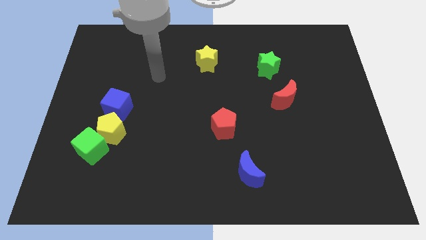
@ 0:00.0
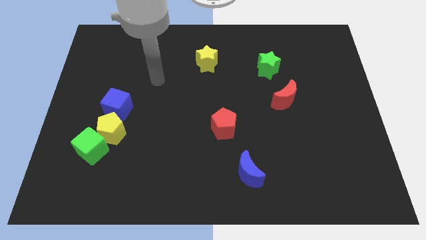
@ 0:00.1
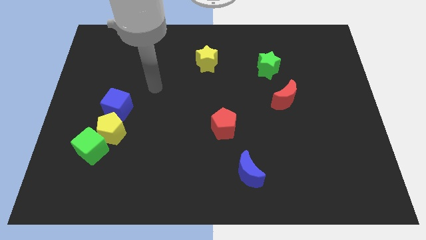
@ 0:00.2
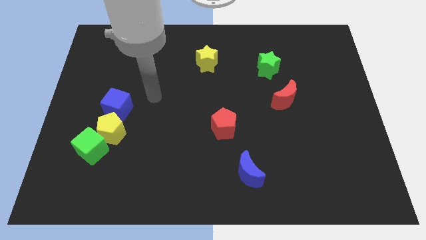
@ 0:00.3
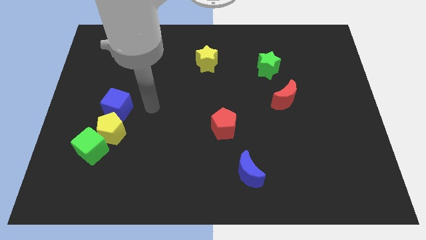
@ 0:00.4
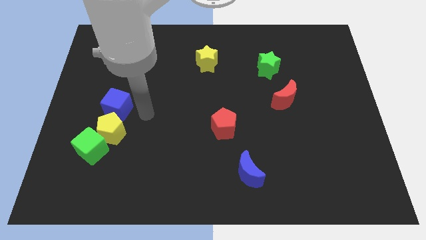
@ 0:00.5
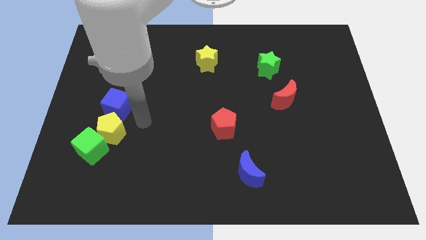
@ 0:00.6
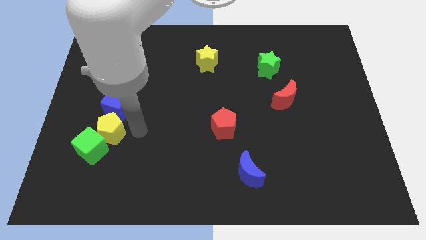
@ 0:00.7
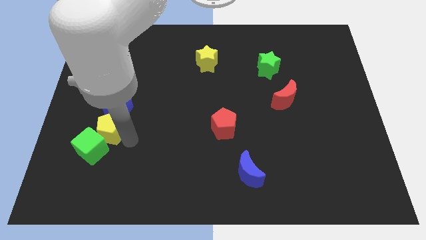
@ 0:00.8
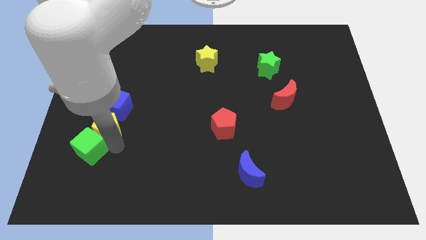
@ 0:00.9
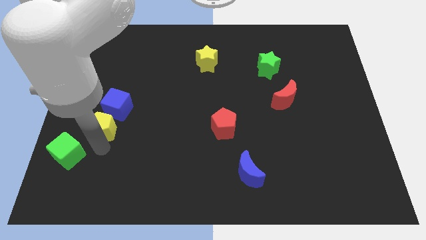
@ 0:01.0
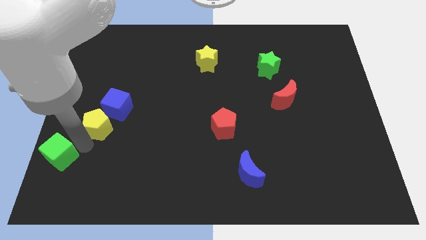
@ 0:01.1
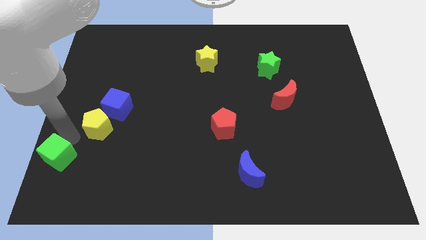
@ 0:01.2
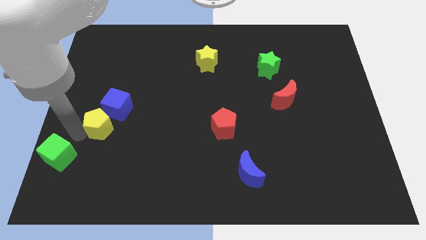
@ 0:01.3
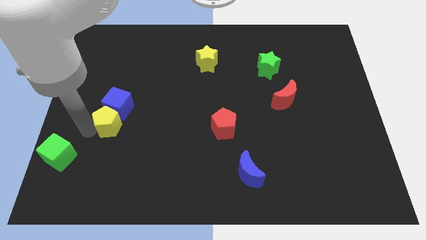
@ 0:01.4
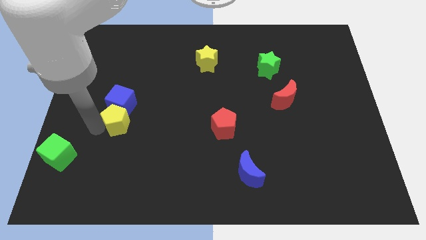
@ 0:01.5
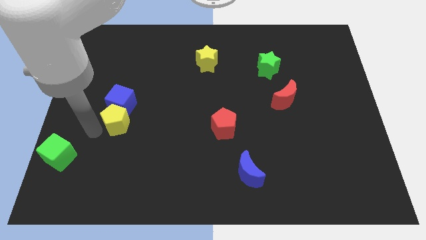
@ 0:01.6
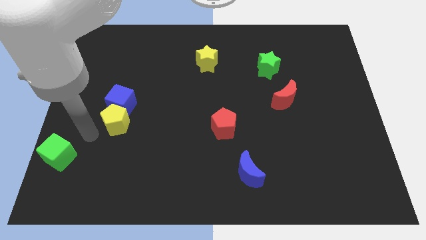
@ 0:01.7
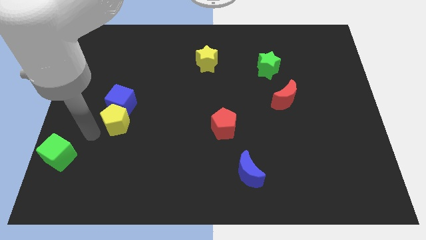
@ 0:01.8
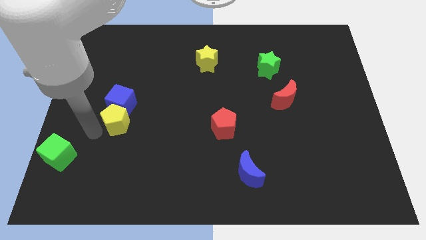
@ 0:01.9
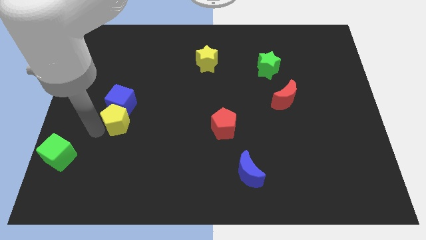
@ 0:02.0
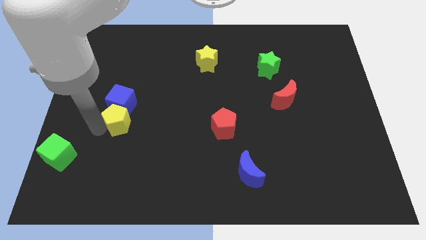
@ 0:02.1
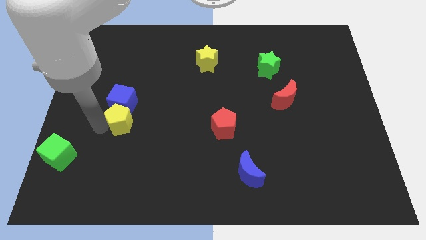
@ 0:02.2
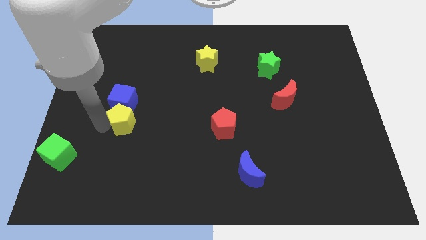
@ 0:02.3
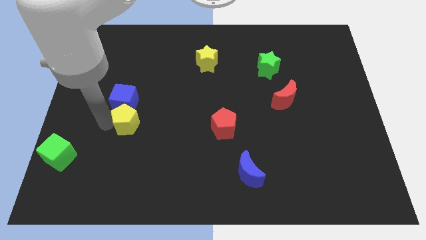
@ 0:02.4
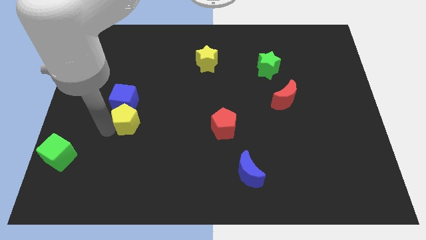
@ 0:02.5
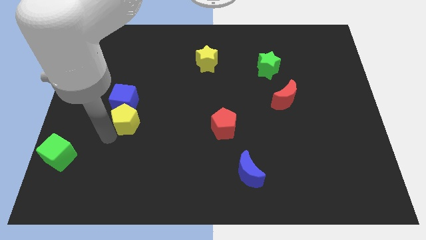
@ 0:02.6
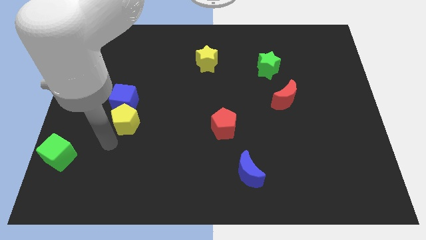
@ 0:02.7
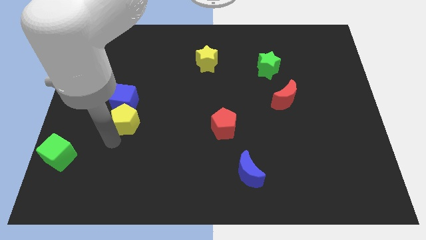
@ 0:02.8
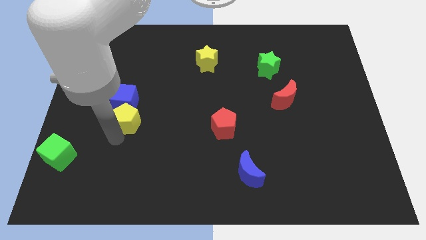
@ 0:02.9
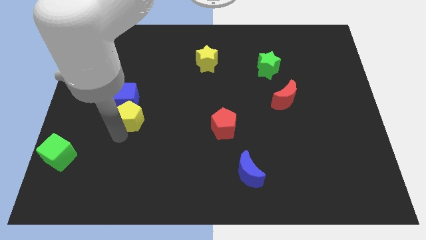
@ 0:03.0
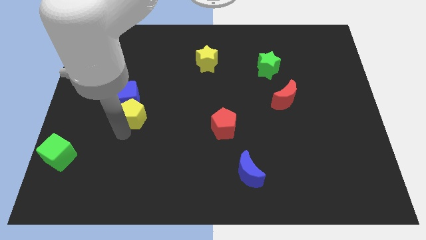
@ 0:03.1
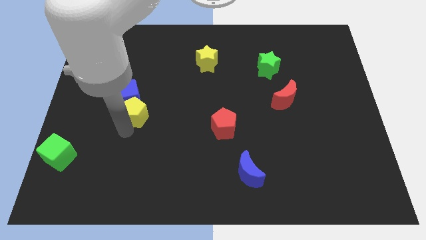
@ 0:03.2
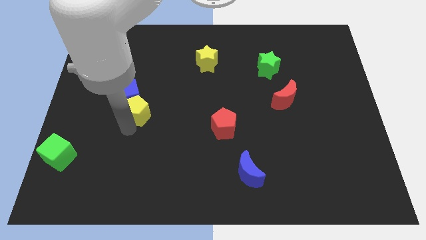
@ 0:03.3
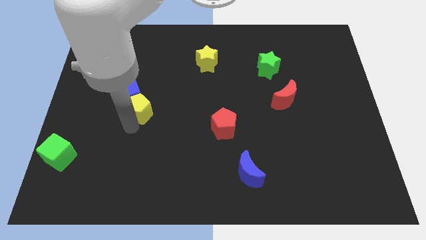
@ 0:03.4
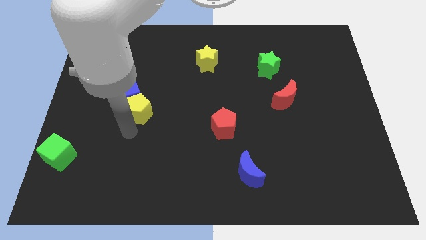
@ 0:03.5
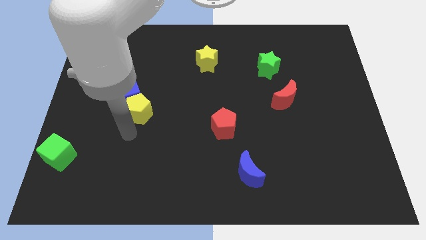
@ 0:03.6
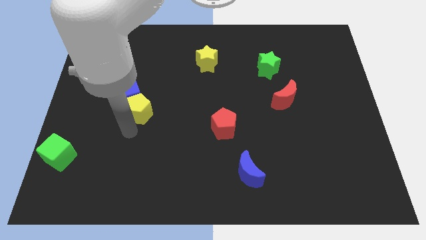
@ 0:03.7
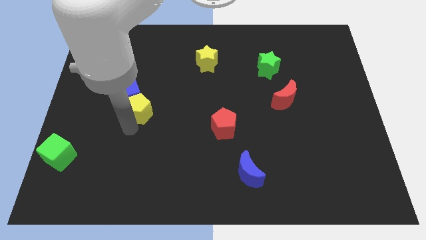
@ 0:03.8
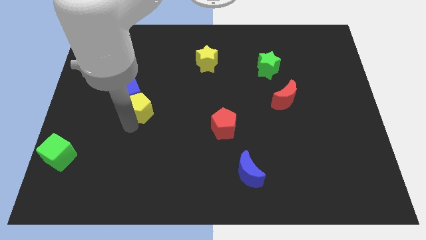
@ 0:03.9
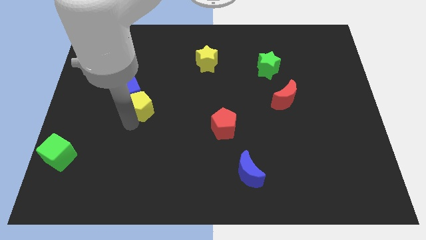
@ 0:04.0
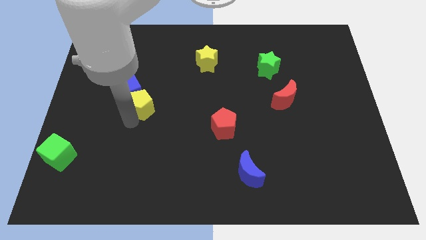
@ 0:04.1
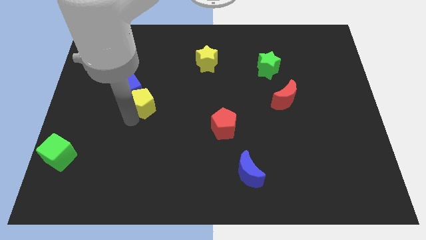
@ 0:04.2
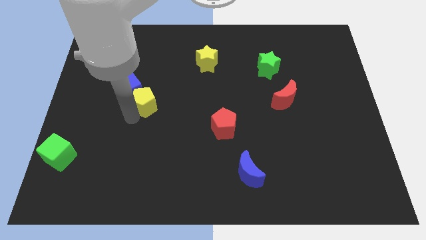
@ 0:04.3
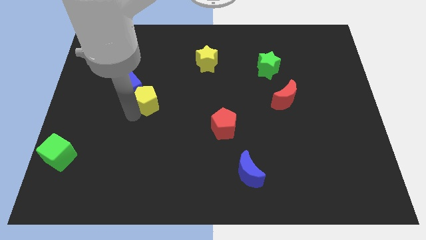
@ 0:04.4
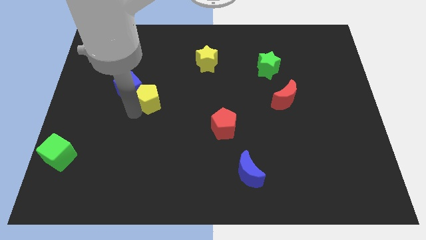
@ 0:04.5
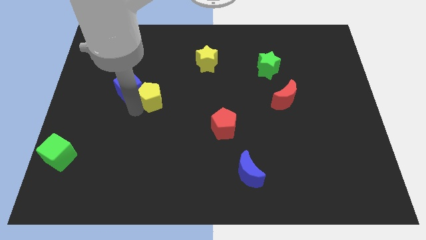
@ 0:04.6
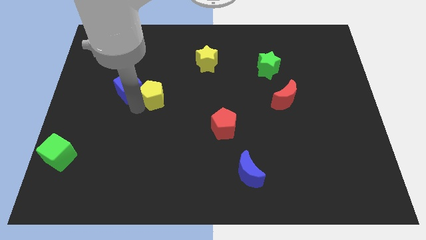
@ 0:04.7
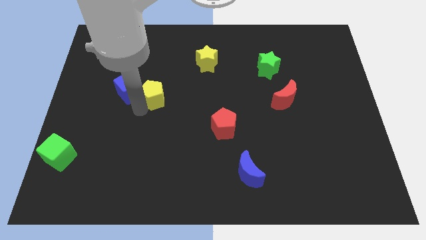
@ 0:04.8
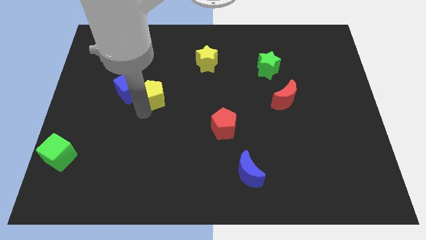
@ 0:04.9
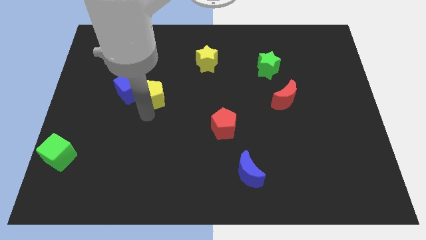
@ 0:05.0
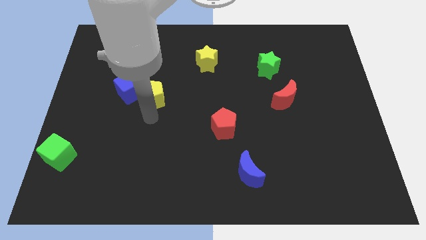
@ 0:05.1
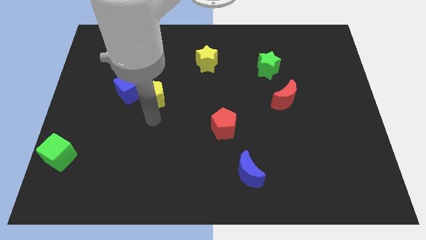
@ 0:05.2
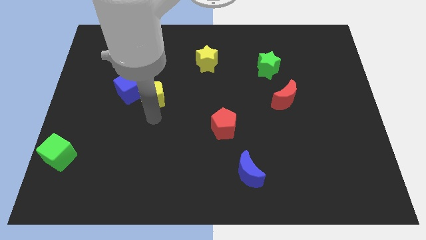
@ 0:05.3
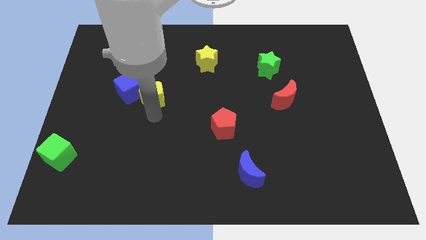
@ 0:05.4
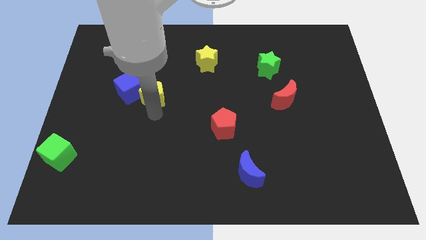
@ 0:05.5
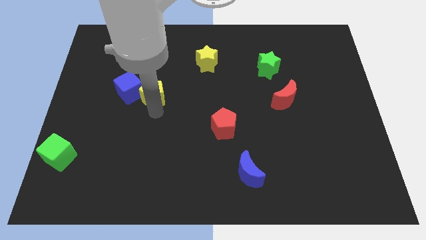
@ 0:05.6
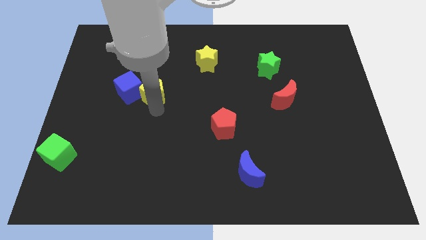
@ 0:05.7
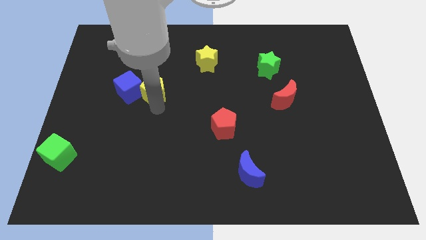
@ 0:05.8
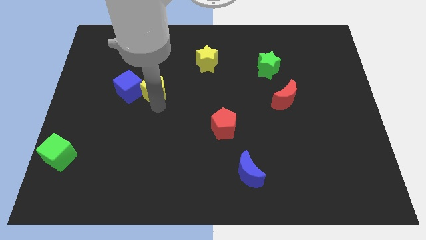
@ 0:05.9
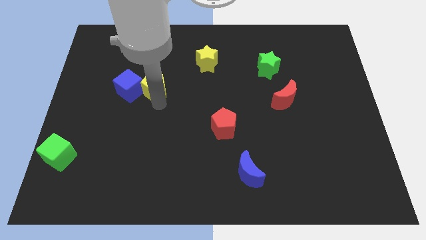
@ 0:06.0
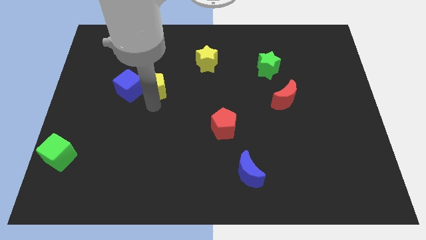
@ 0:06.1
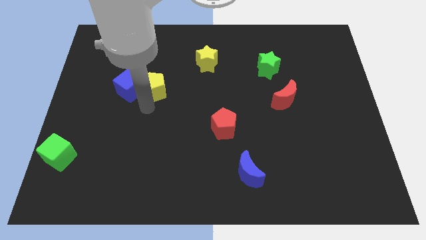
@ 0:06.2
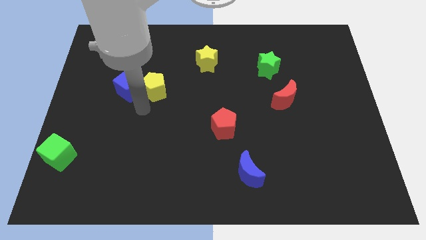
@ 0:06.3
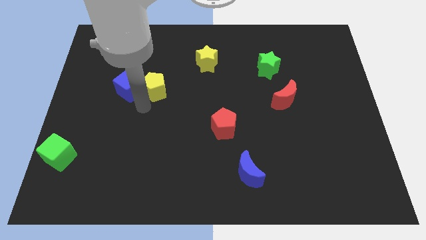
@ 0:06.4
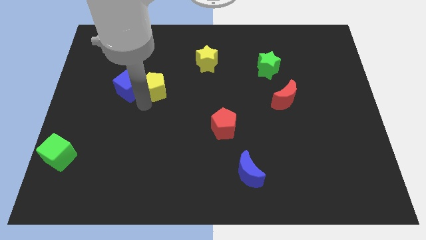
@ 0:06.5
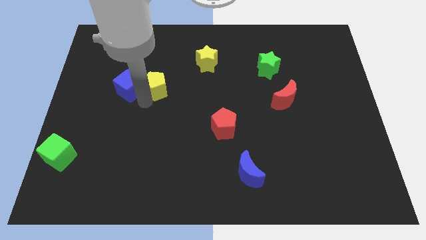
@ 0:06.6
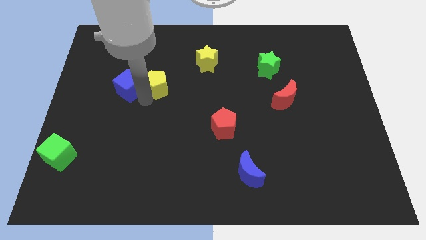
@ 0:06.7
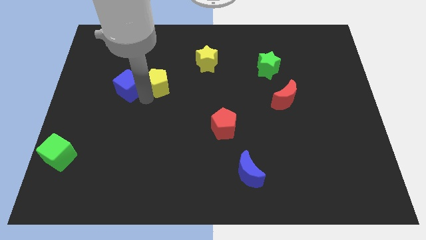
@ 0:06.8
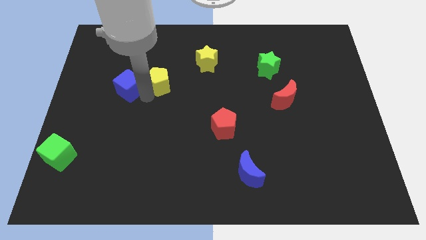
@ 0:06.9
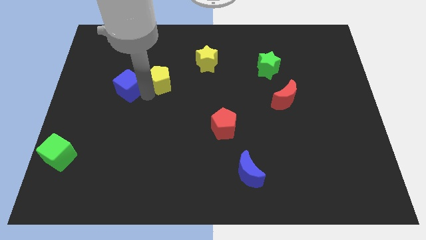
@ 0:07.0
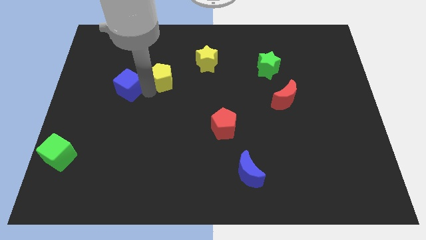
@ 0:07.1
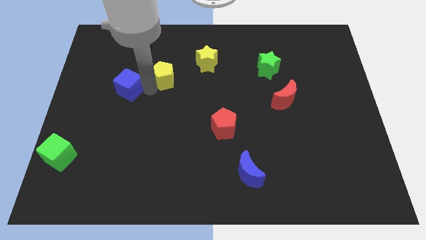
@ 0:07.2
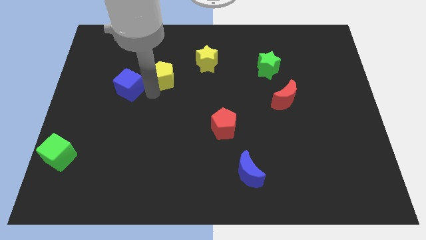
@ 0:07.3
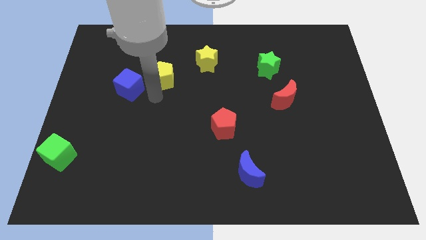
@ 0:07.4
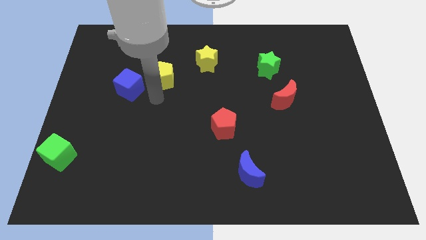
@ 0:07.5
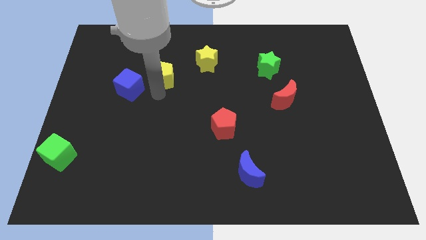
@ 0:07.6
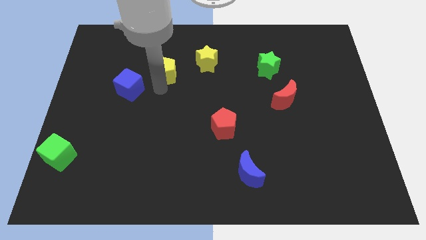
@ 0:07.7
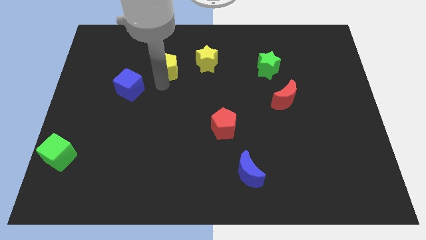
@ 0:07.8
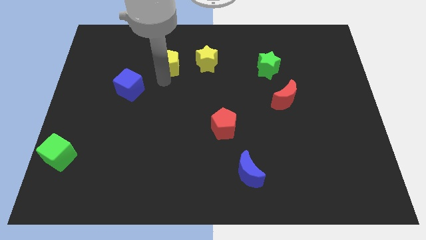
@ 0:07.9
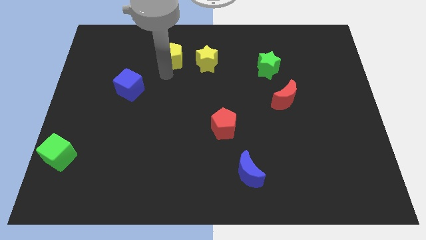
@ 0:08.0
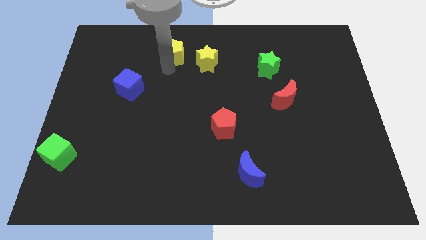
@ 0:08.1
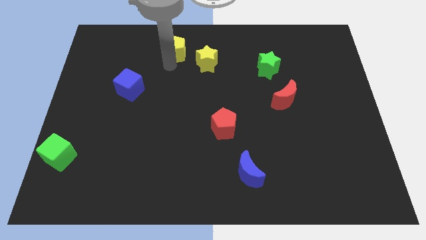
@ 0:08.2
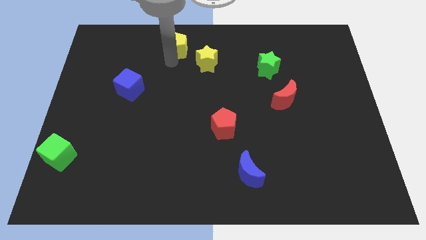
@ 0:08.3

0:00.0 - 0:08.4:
slide the yellow pentagon to the top
